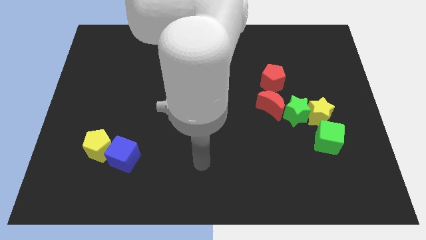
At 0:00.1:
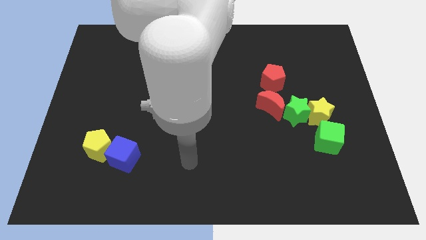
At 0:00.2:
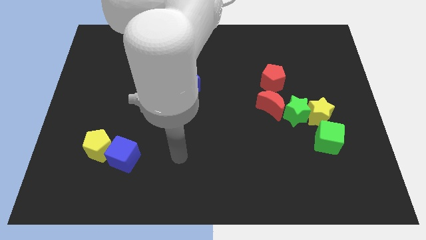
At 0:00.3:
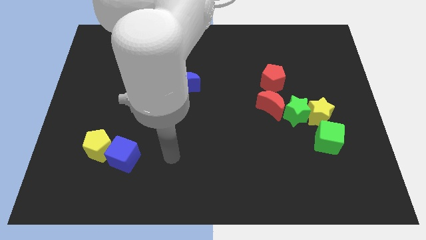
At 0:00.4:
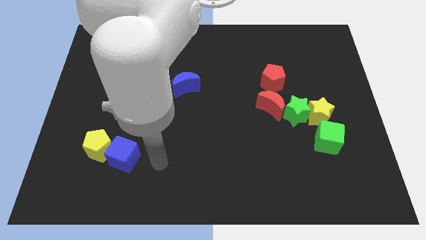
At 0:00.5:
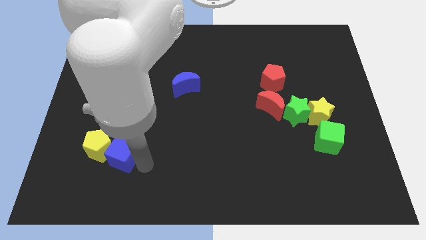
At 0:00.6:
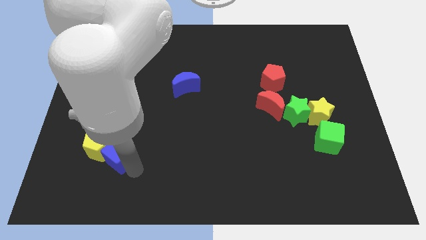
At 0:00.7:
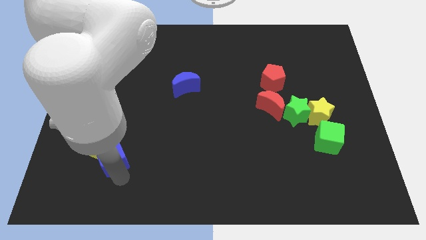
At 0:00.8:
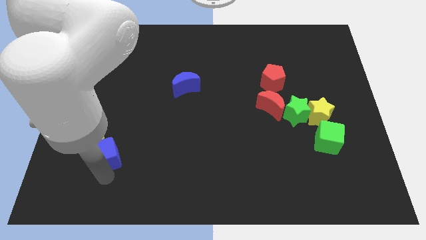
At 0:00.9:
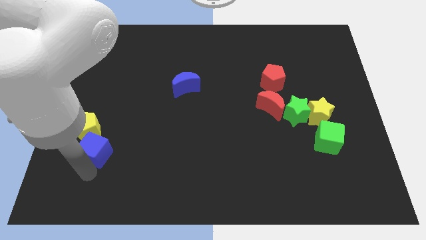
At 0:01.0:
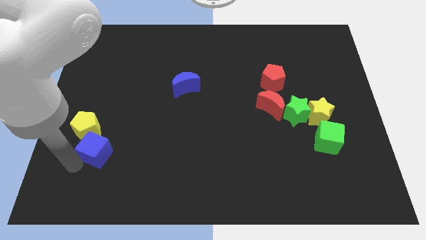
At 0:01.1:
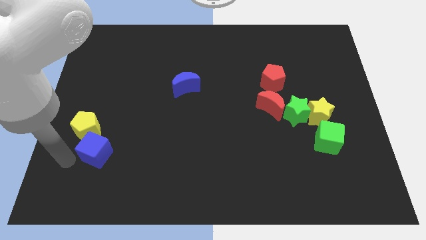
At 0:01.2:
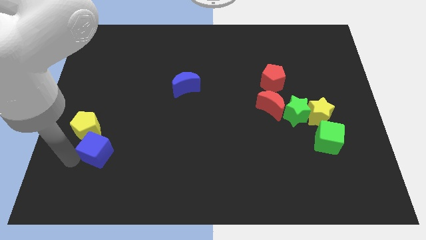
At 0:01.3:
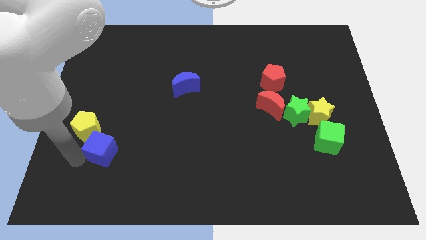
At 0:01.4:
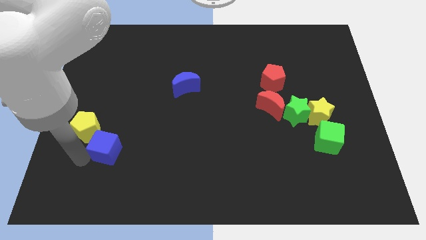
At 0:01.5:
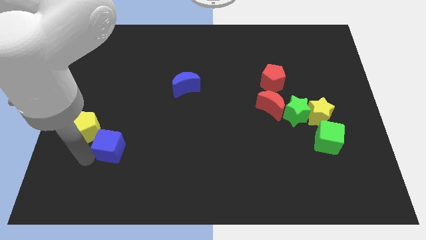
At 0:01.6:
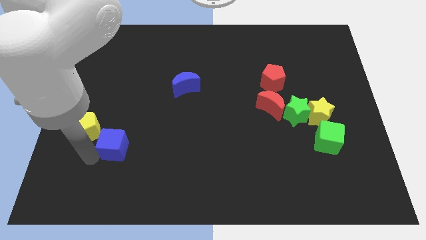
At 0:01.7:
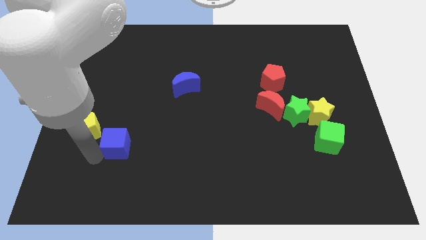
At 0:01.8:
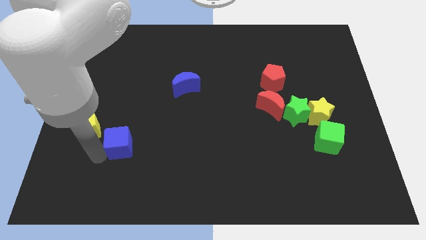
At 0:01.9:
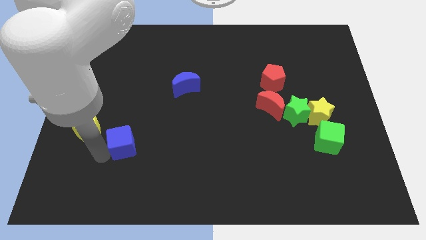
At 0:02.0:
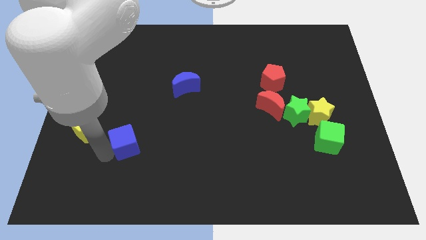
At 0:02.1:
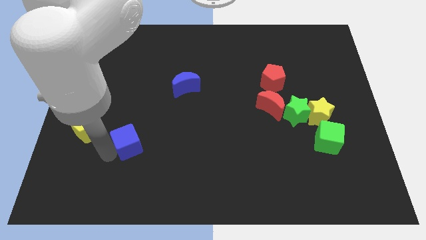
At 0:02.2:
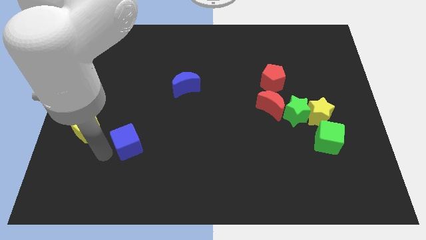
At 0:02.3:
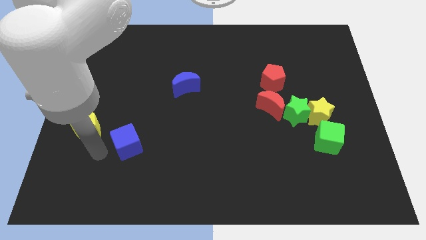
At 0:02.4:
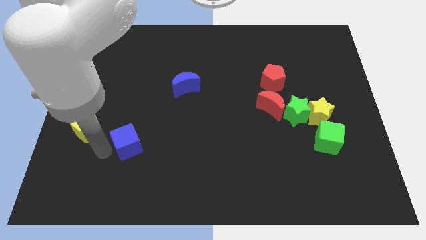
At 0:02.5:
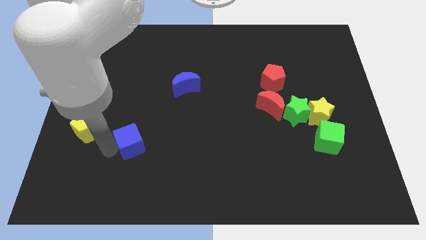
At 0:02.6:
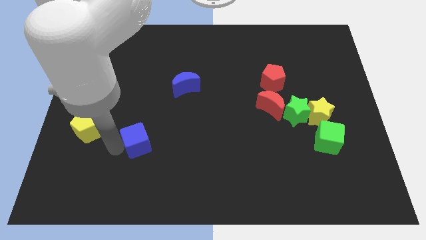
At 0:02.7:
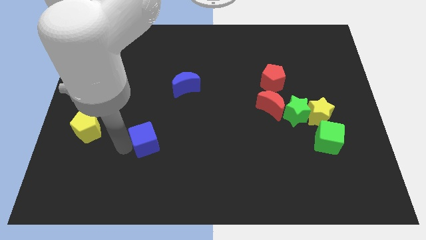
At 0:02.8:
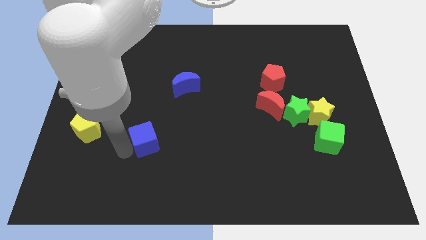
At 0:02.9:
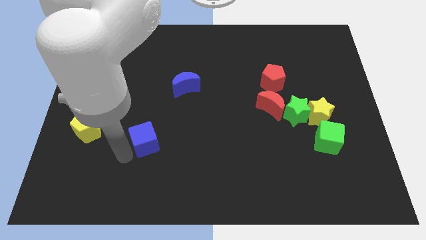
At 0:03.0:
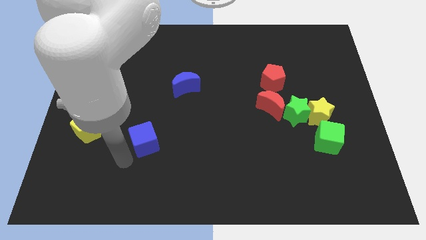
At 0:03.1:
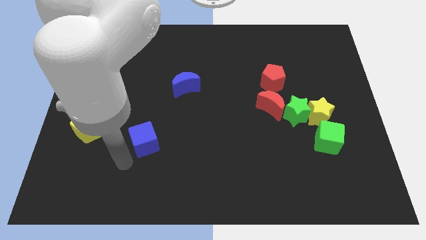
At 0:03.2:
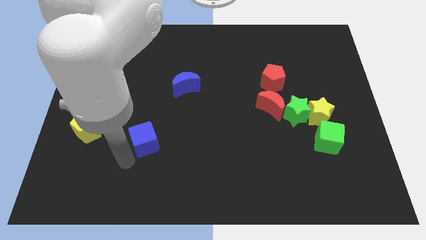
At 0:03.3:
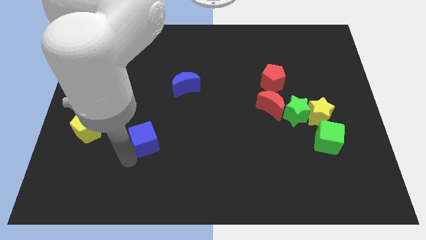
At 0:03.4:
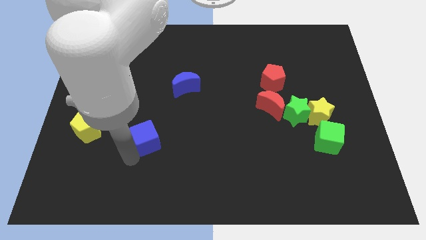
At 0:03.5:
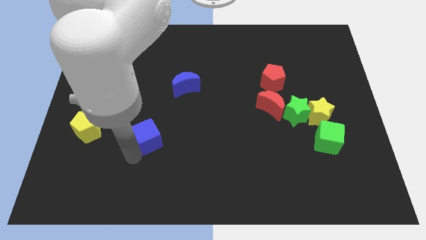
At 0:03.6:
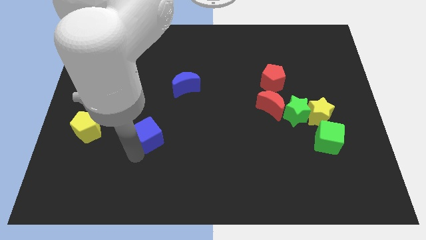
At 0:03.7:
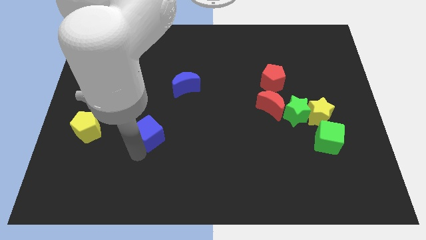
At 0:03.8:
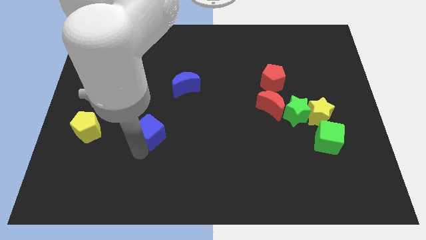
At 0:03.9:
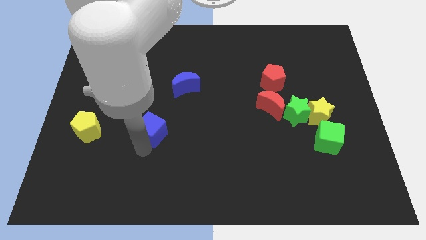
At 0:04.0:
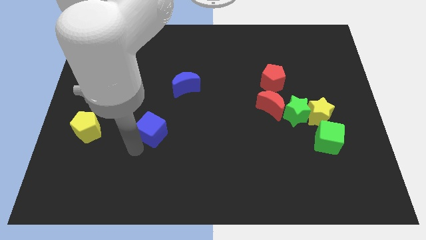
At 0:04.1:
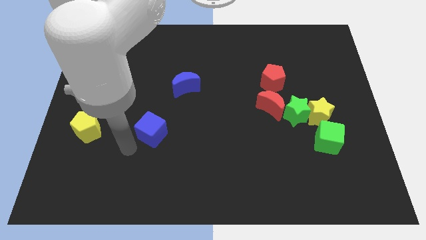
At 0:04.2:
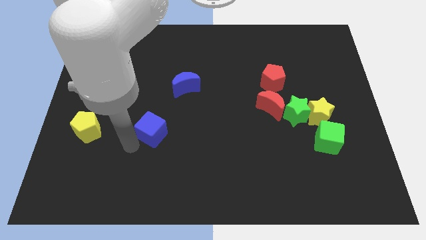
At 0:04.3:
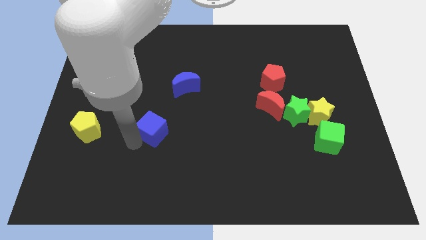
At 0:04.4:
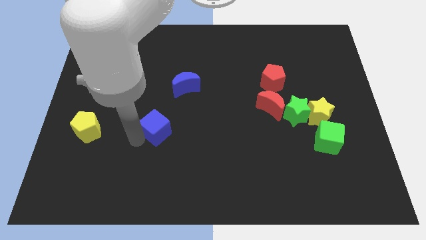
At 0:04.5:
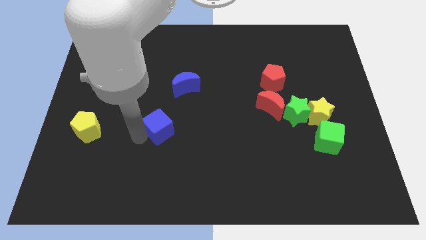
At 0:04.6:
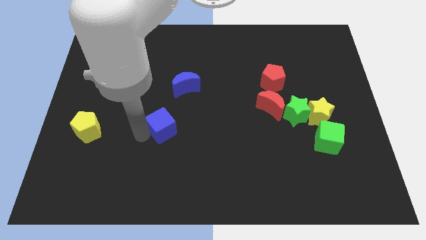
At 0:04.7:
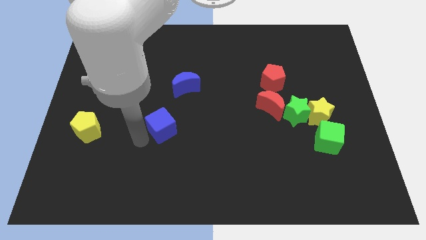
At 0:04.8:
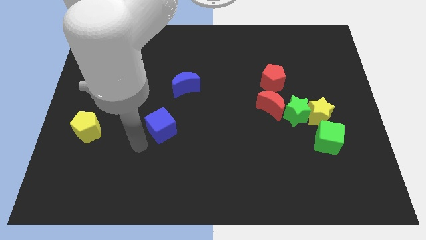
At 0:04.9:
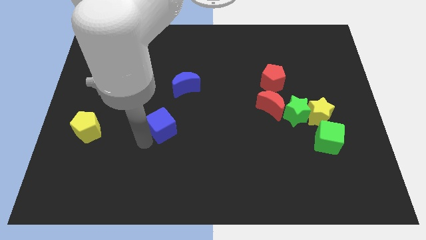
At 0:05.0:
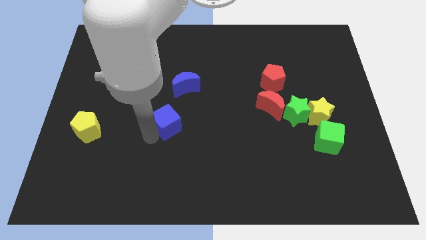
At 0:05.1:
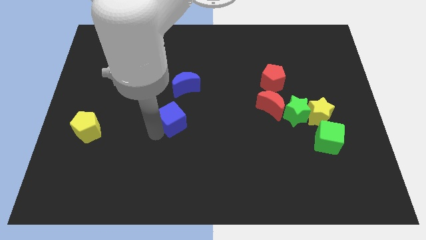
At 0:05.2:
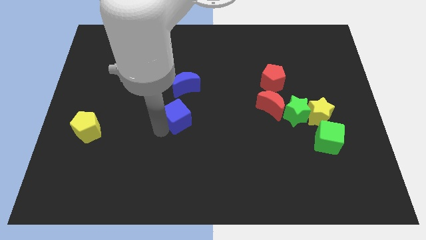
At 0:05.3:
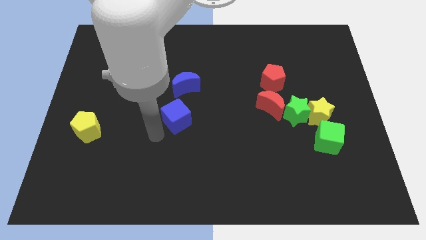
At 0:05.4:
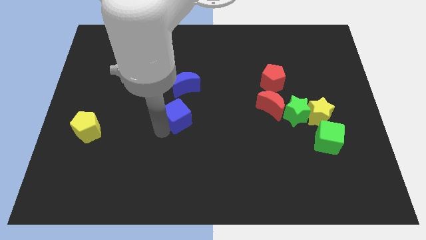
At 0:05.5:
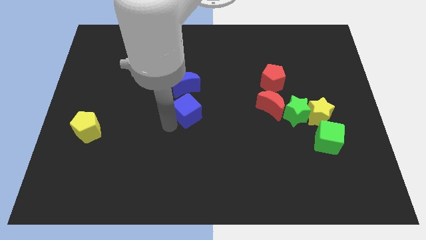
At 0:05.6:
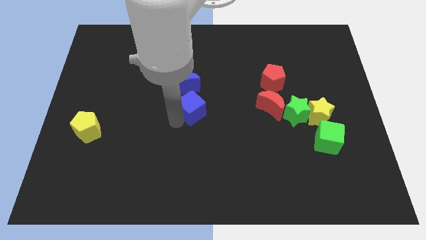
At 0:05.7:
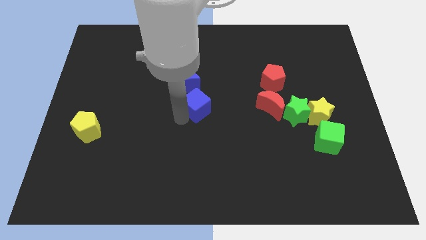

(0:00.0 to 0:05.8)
move the blue cube upwards and to the right diagonally

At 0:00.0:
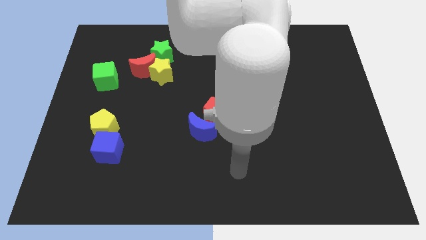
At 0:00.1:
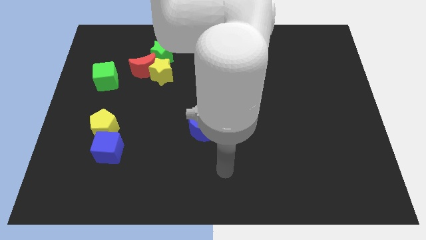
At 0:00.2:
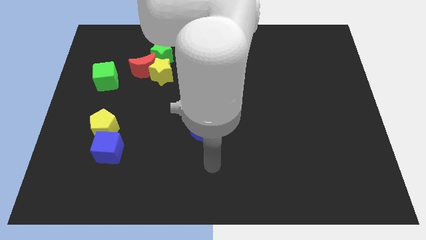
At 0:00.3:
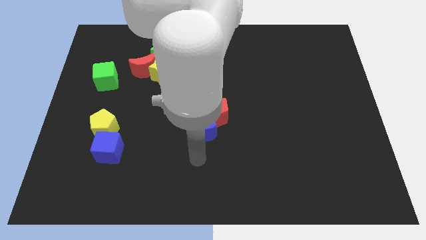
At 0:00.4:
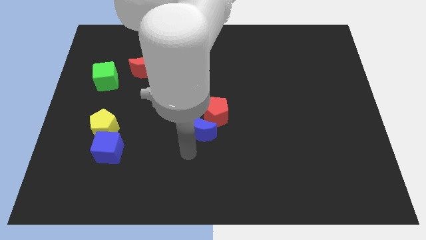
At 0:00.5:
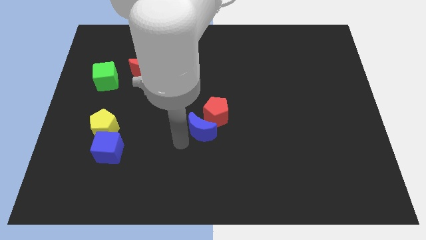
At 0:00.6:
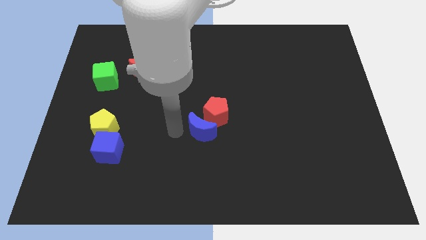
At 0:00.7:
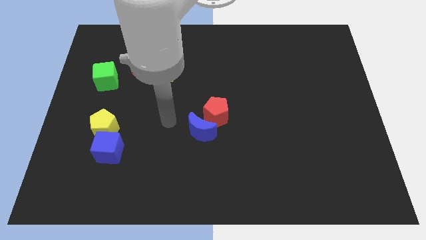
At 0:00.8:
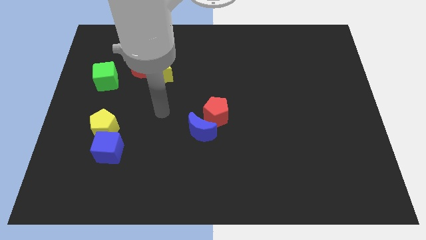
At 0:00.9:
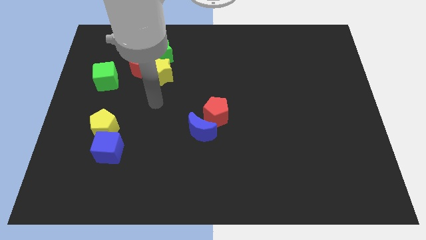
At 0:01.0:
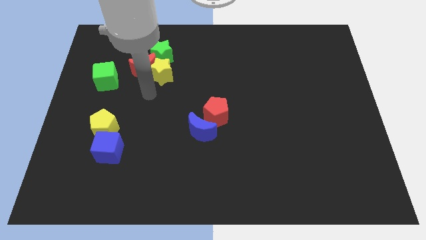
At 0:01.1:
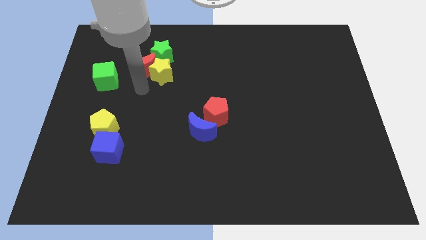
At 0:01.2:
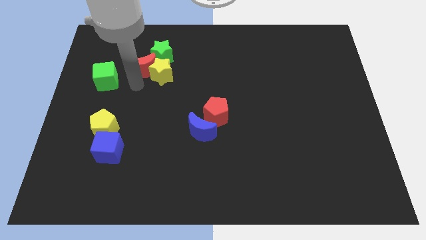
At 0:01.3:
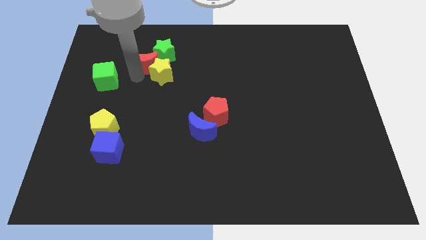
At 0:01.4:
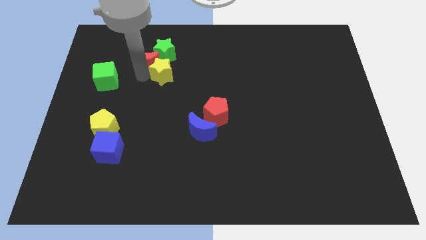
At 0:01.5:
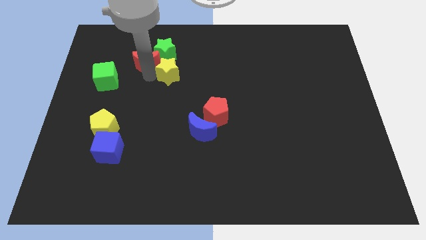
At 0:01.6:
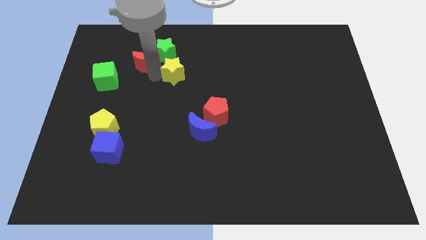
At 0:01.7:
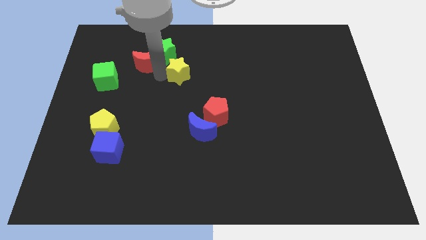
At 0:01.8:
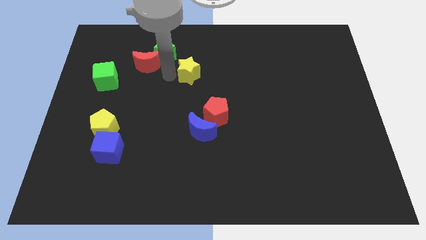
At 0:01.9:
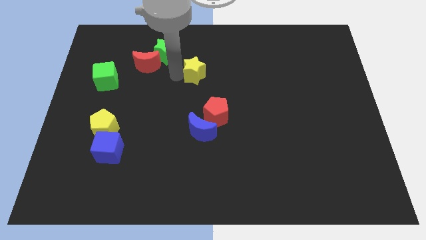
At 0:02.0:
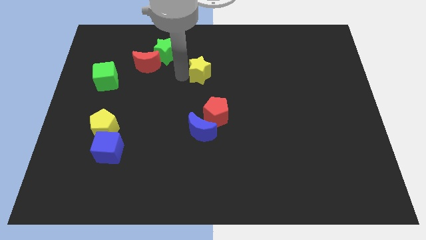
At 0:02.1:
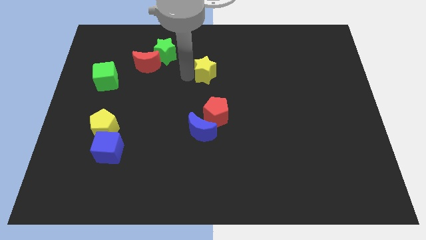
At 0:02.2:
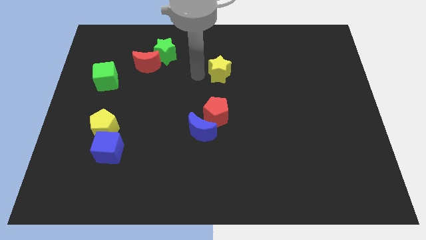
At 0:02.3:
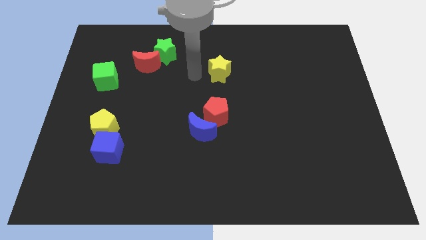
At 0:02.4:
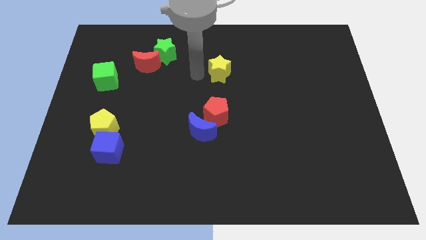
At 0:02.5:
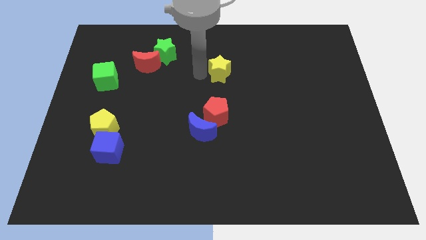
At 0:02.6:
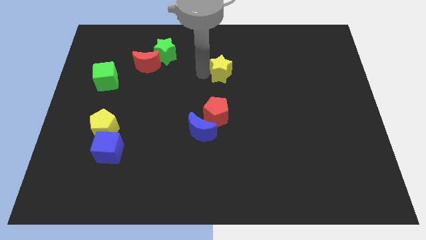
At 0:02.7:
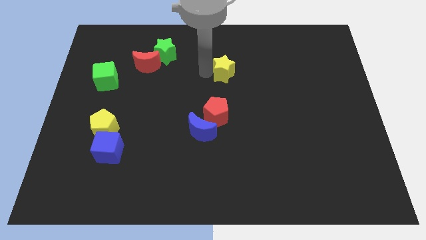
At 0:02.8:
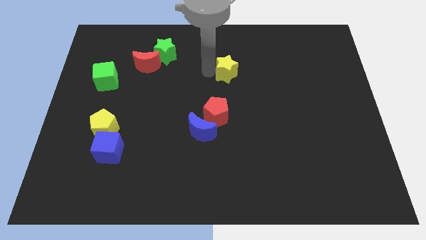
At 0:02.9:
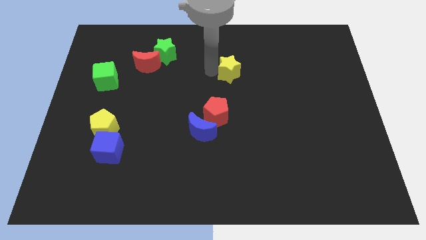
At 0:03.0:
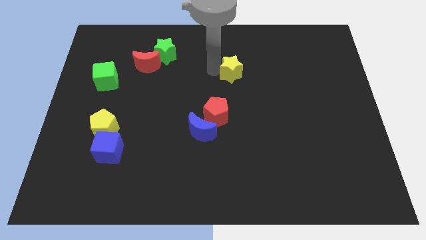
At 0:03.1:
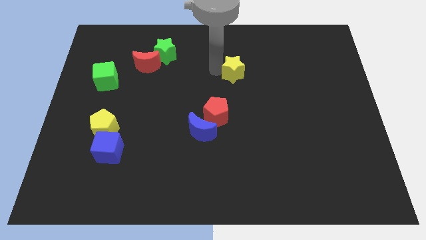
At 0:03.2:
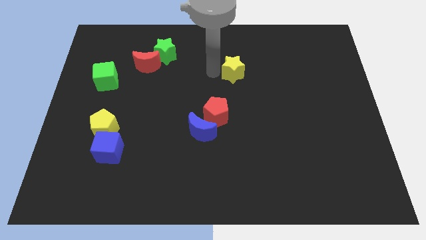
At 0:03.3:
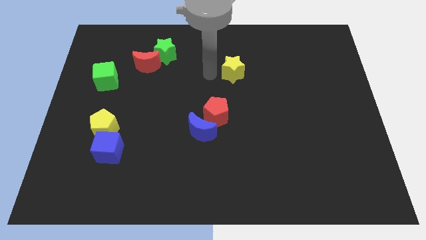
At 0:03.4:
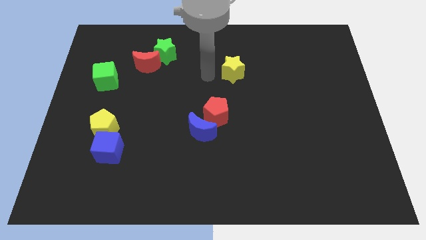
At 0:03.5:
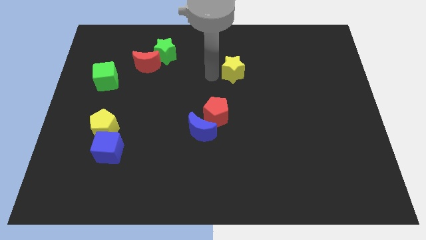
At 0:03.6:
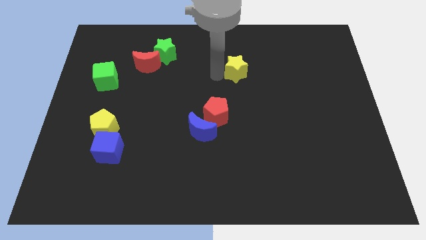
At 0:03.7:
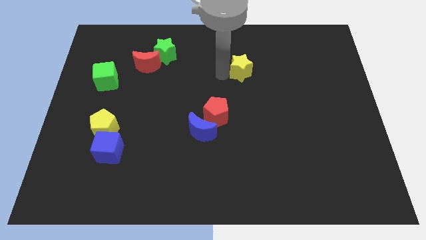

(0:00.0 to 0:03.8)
slide the yellow star to the right
